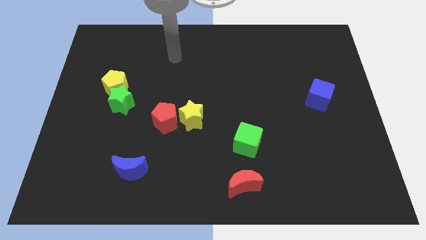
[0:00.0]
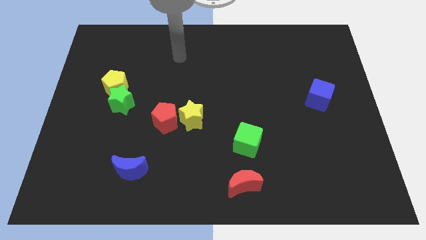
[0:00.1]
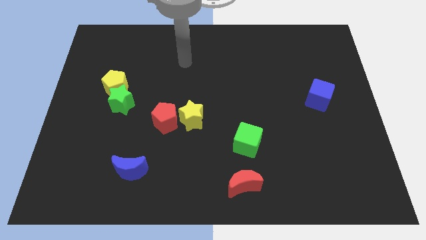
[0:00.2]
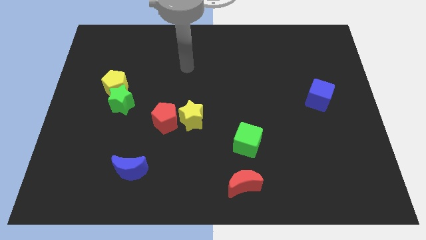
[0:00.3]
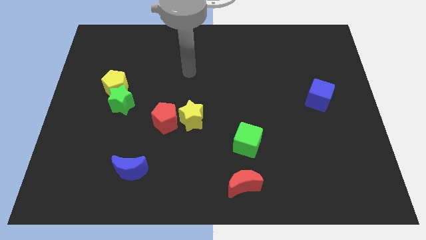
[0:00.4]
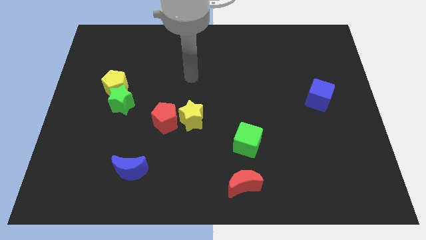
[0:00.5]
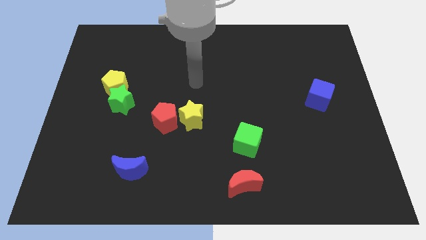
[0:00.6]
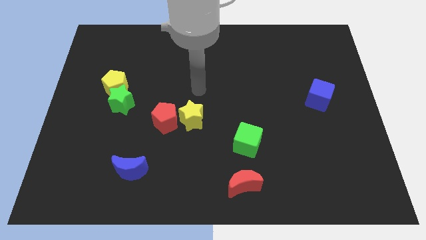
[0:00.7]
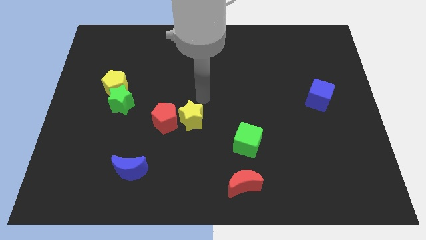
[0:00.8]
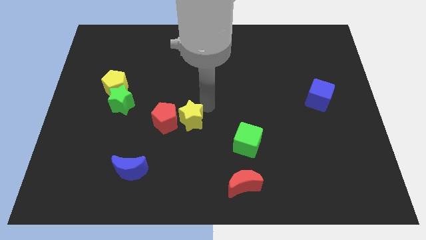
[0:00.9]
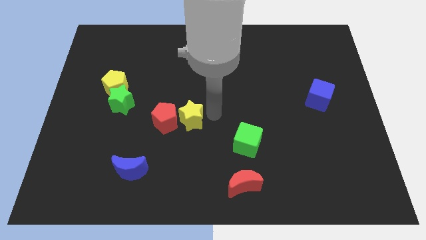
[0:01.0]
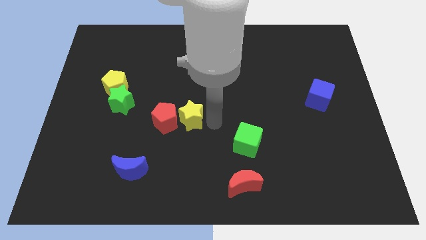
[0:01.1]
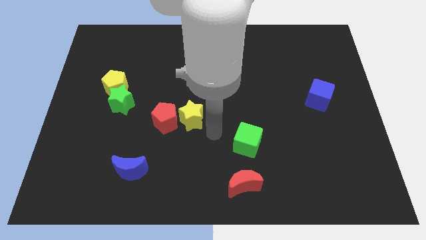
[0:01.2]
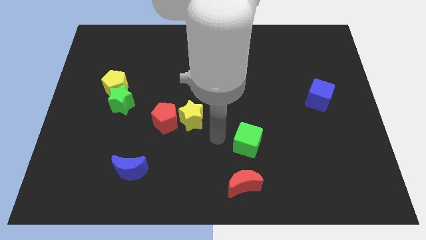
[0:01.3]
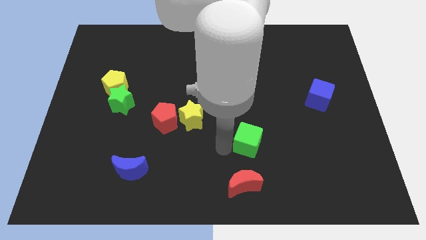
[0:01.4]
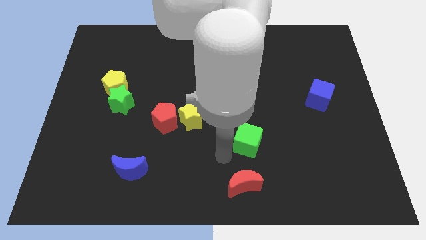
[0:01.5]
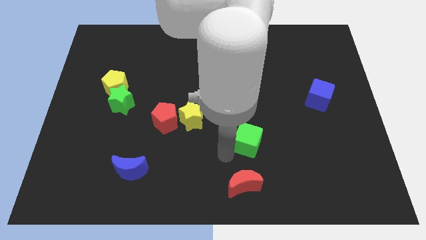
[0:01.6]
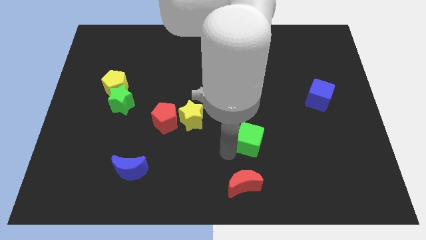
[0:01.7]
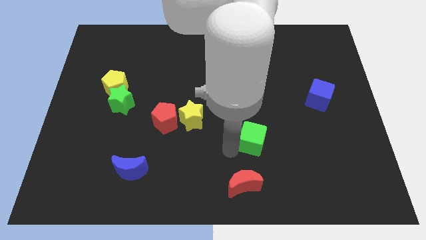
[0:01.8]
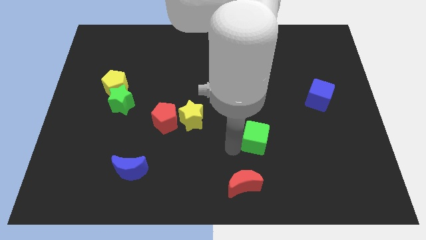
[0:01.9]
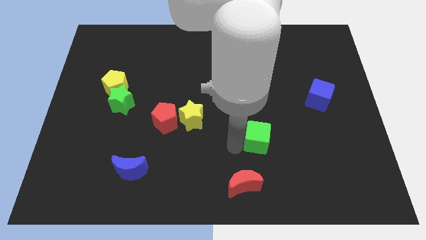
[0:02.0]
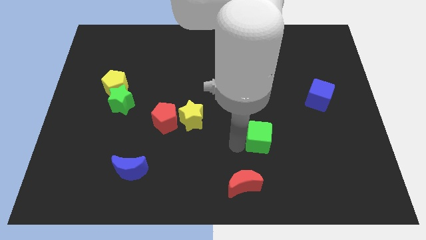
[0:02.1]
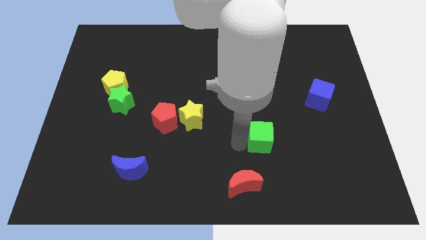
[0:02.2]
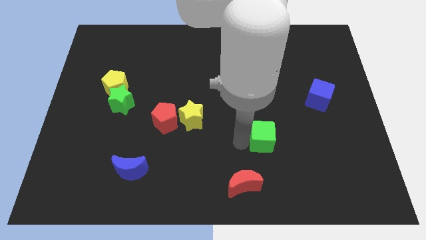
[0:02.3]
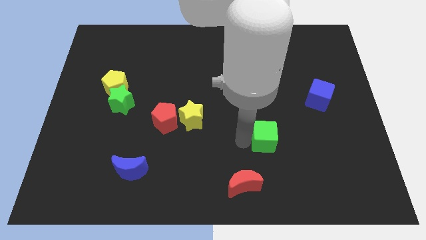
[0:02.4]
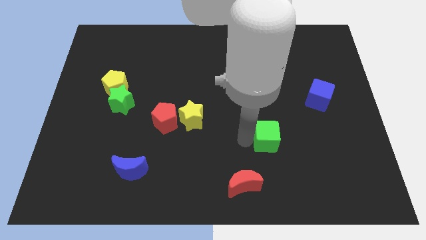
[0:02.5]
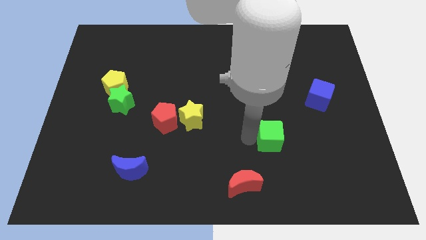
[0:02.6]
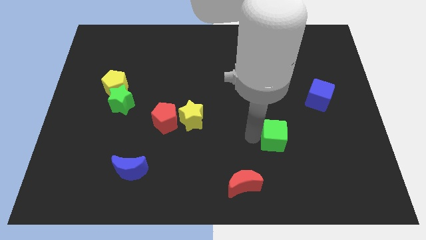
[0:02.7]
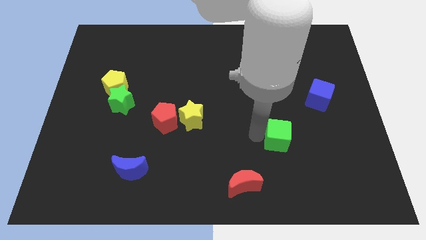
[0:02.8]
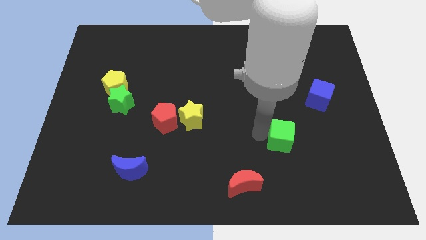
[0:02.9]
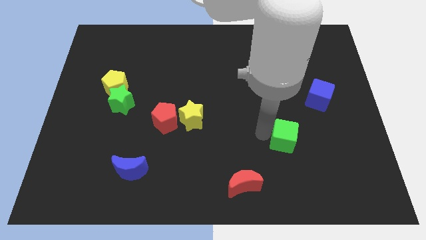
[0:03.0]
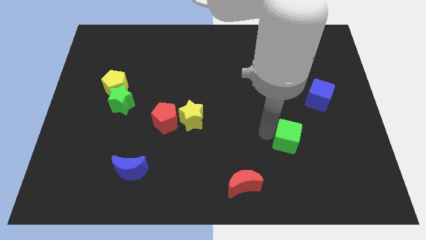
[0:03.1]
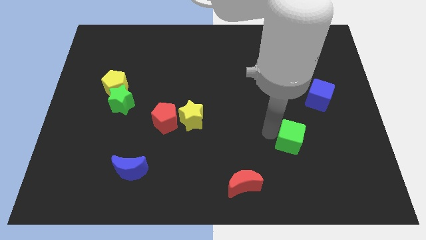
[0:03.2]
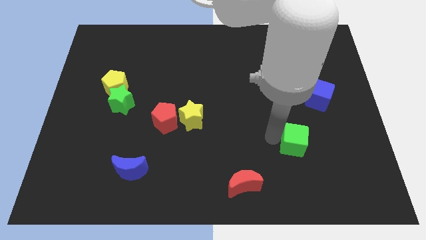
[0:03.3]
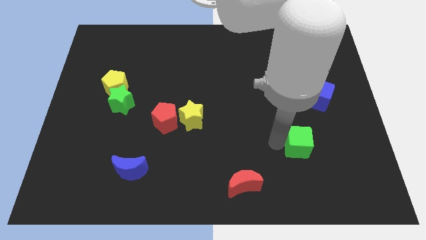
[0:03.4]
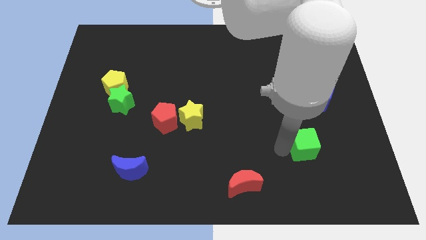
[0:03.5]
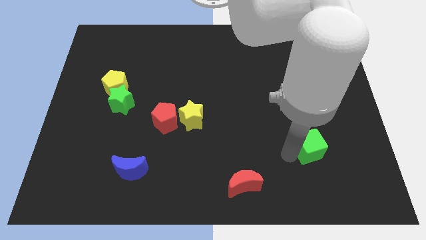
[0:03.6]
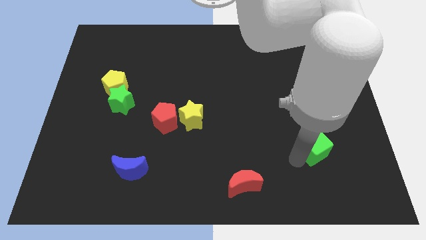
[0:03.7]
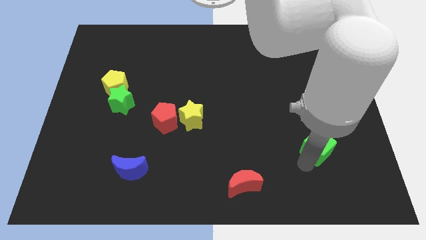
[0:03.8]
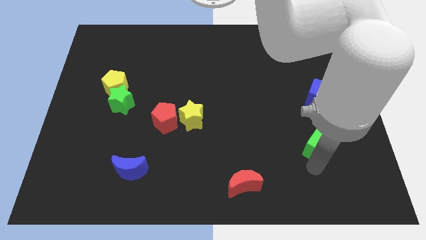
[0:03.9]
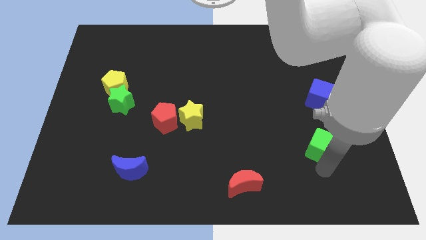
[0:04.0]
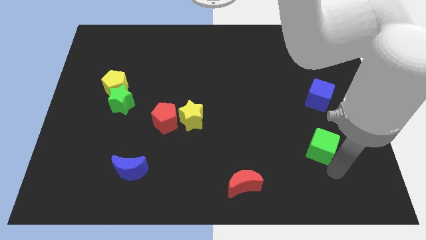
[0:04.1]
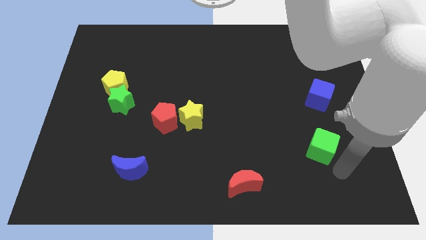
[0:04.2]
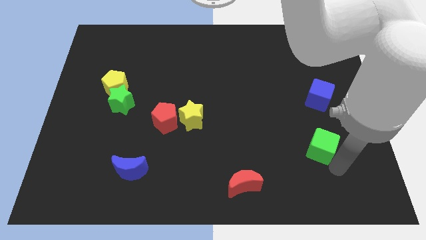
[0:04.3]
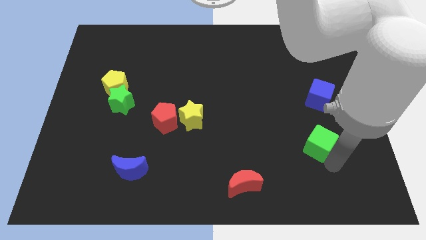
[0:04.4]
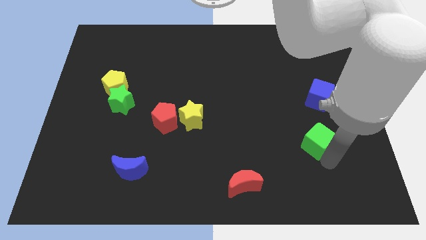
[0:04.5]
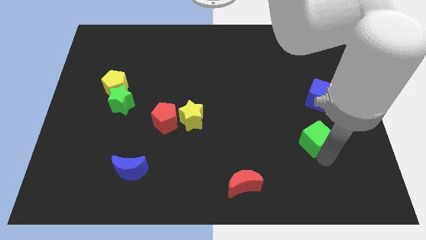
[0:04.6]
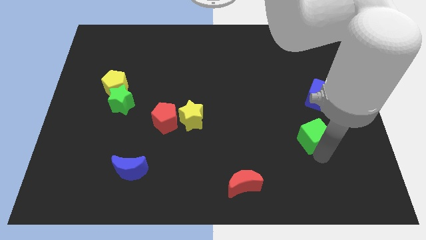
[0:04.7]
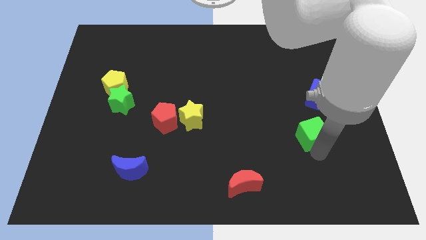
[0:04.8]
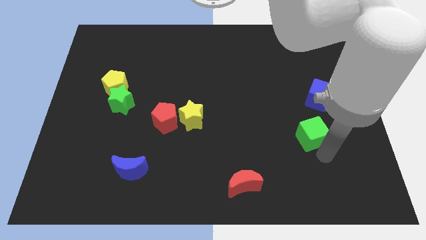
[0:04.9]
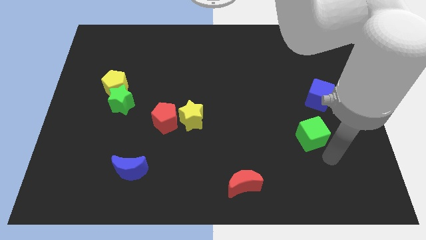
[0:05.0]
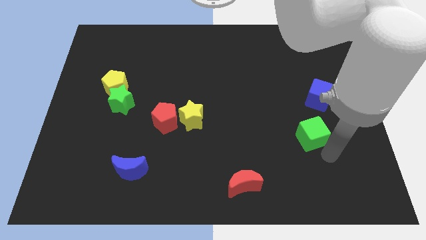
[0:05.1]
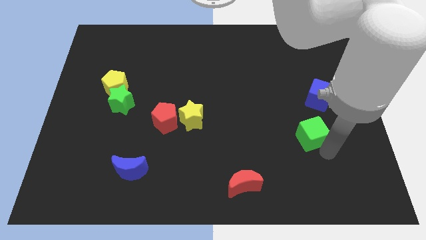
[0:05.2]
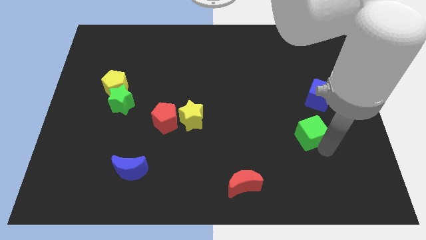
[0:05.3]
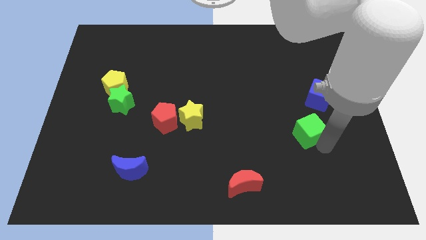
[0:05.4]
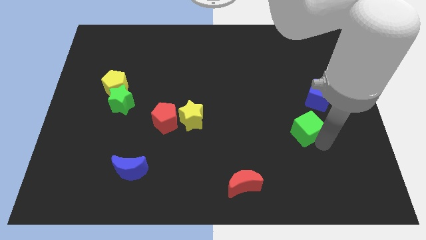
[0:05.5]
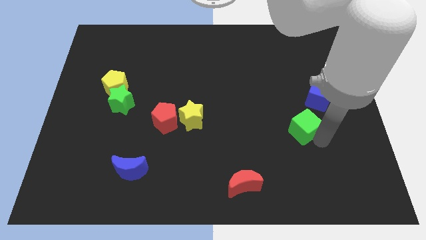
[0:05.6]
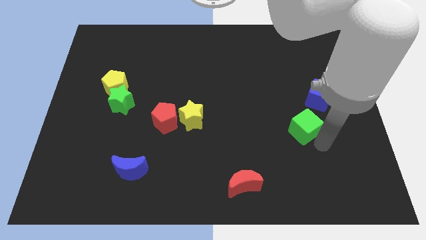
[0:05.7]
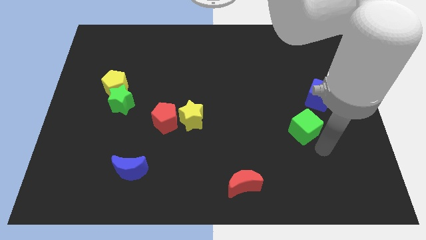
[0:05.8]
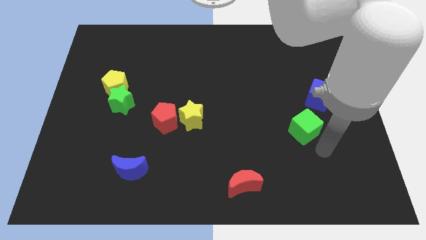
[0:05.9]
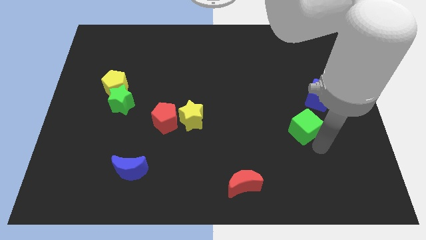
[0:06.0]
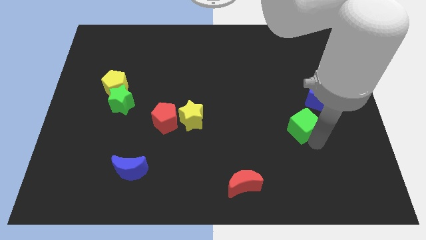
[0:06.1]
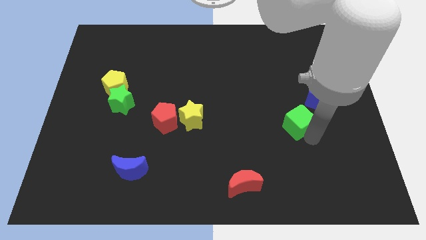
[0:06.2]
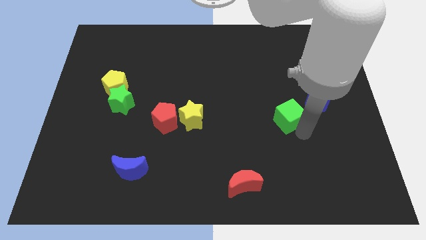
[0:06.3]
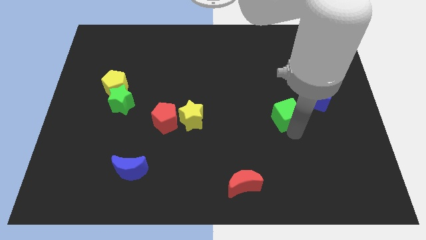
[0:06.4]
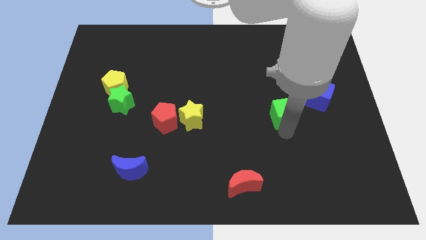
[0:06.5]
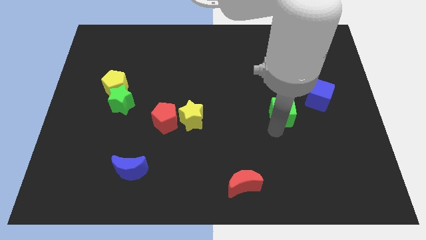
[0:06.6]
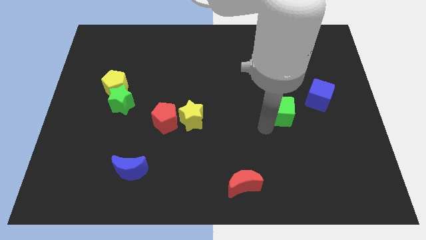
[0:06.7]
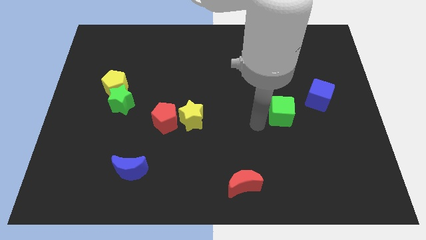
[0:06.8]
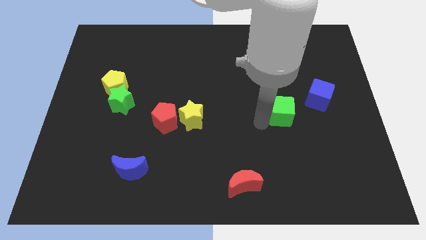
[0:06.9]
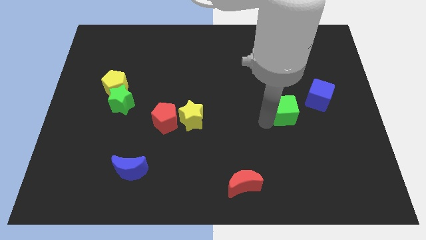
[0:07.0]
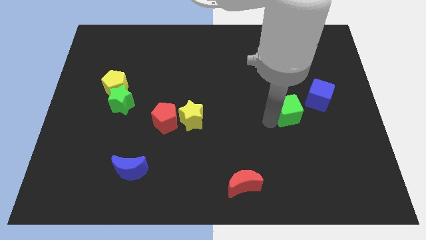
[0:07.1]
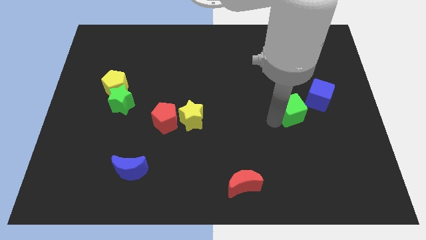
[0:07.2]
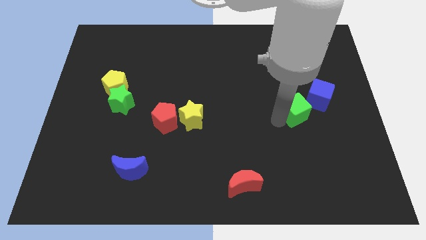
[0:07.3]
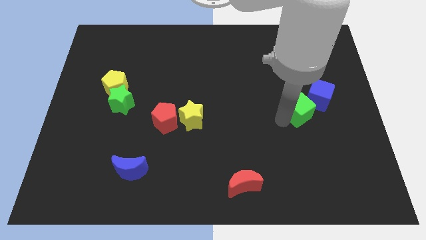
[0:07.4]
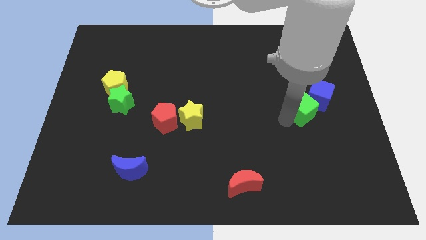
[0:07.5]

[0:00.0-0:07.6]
put the green cube towards the blue cube
